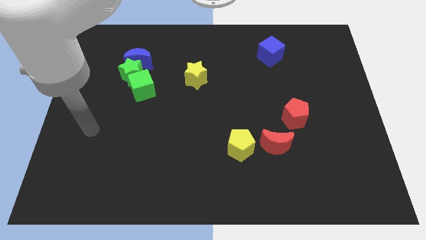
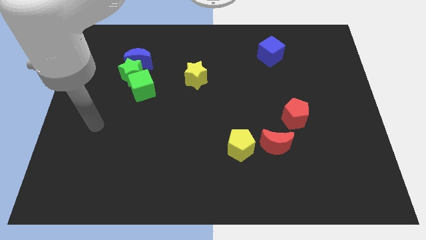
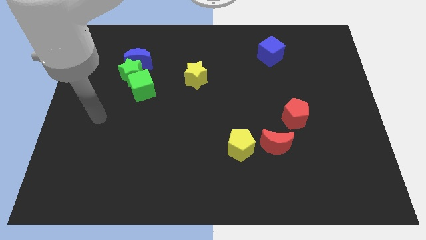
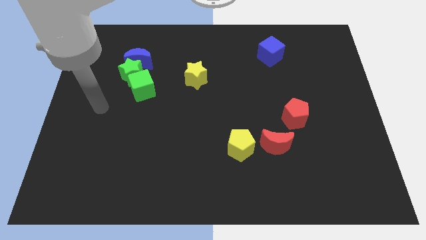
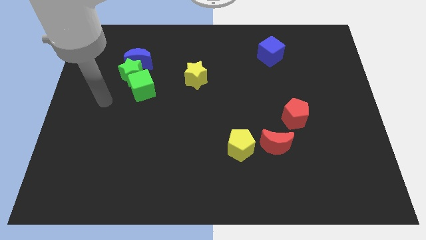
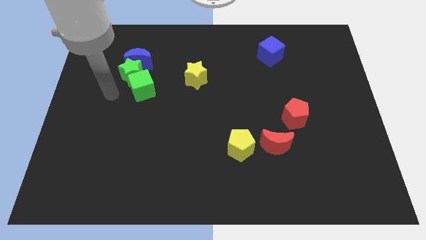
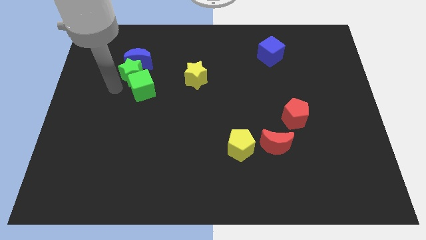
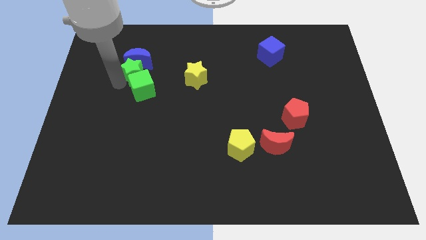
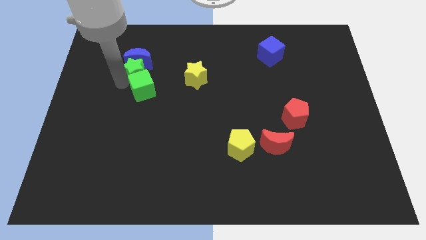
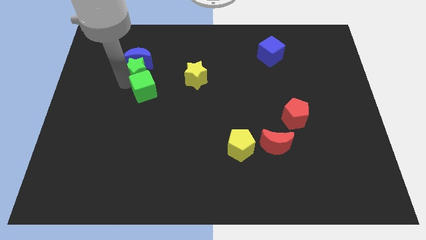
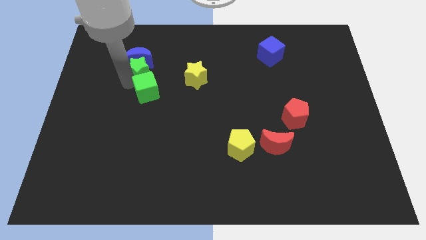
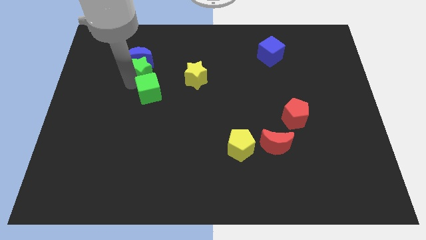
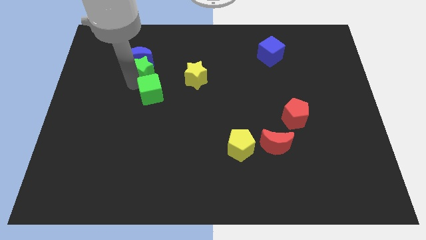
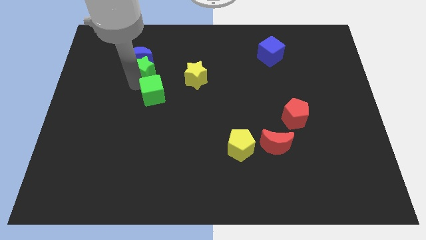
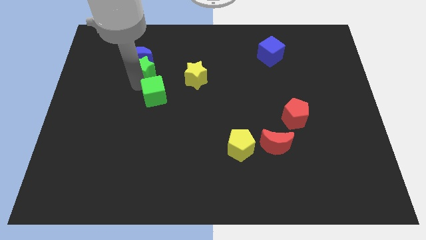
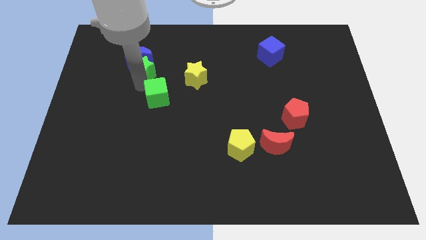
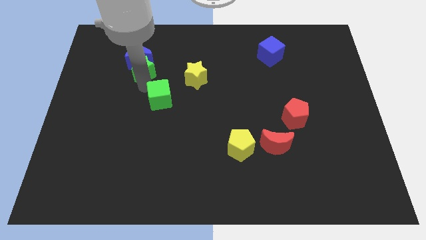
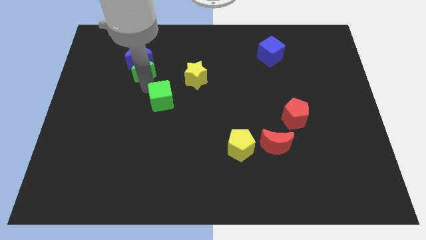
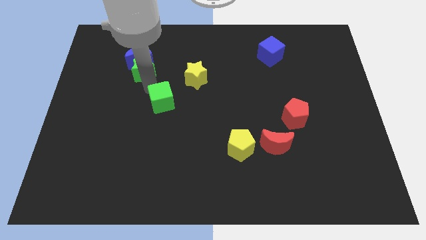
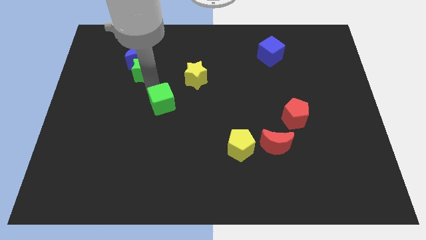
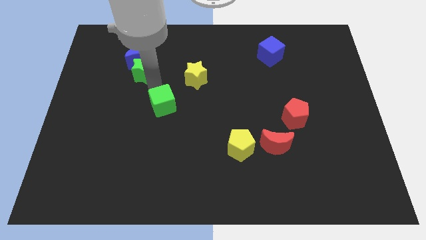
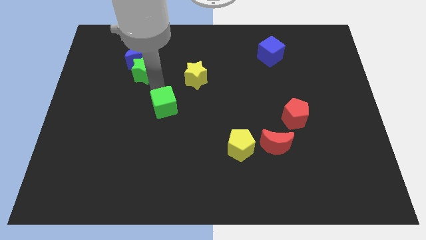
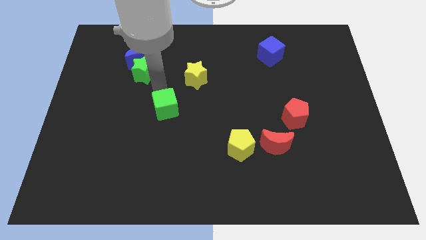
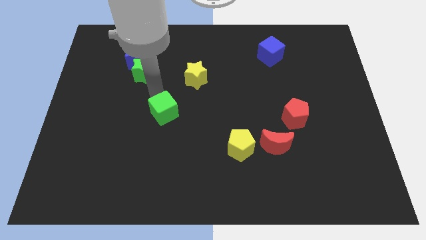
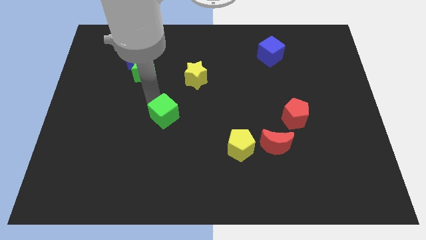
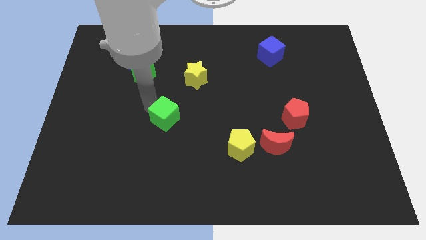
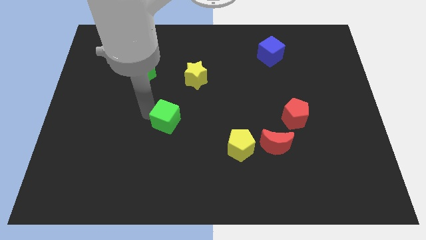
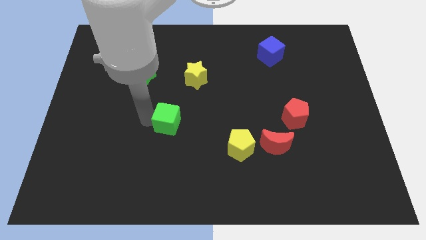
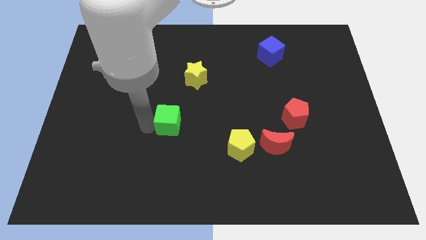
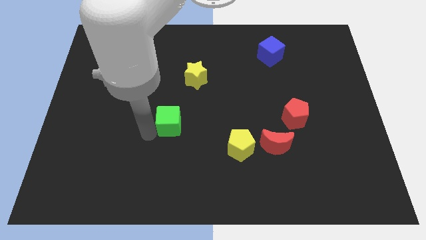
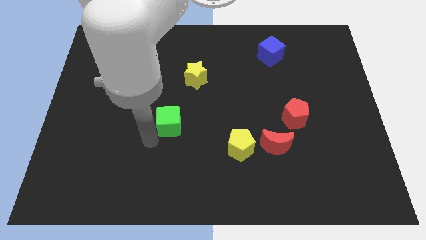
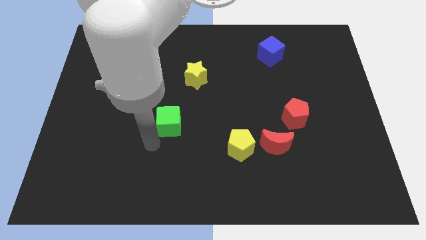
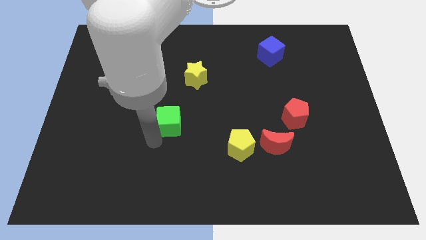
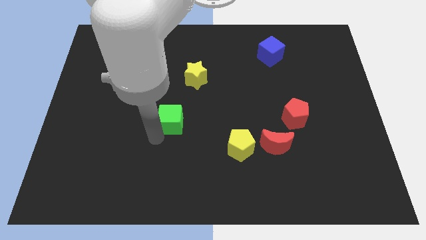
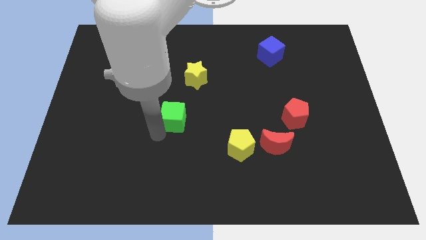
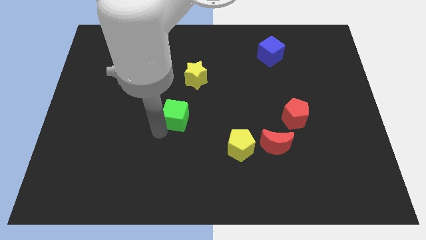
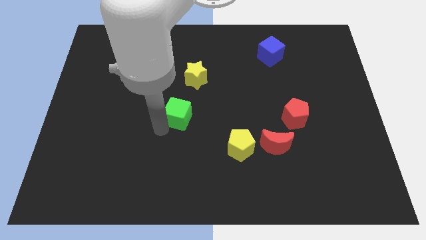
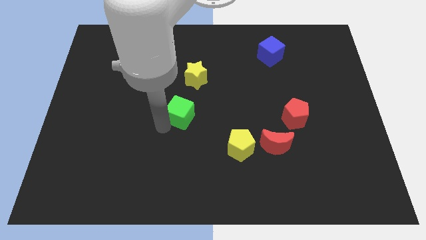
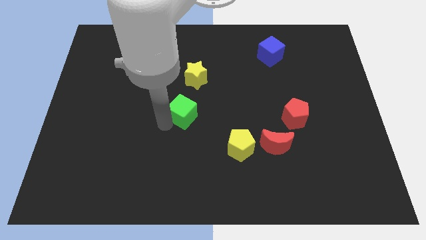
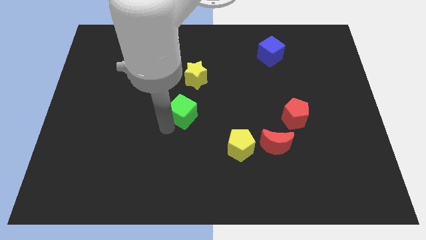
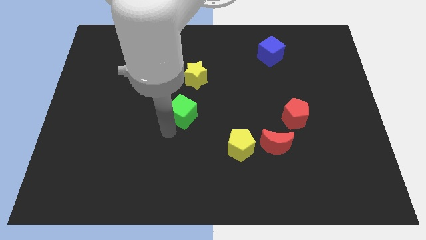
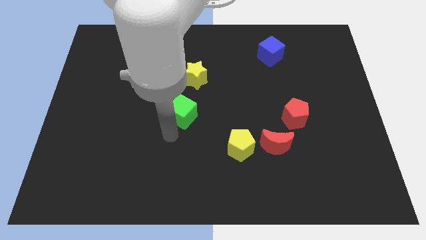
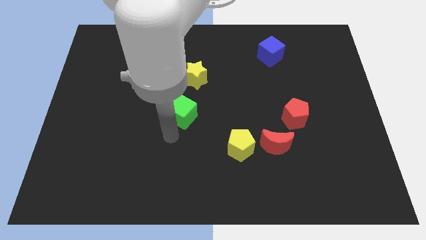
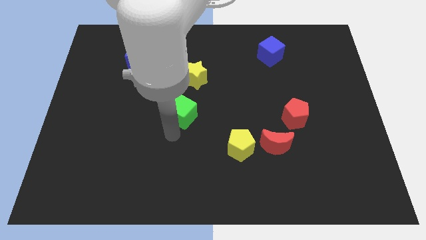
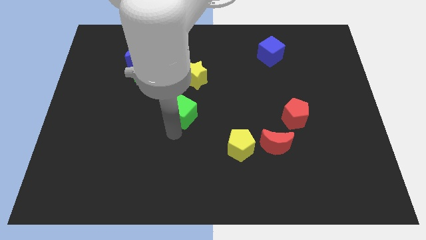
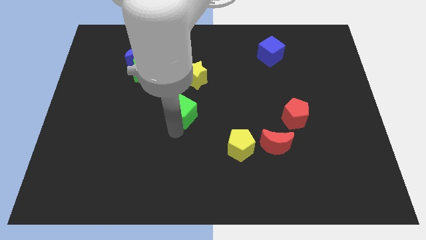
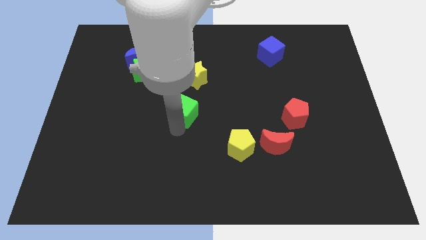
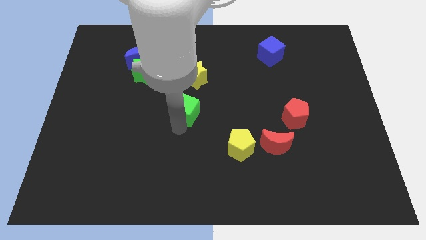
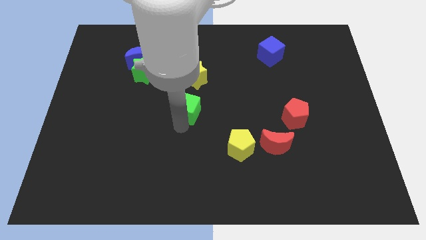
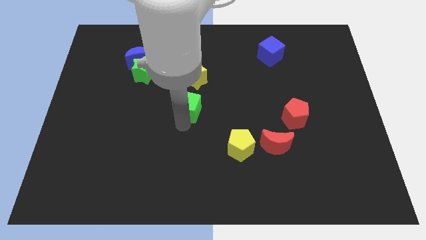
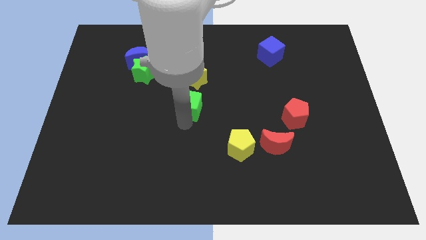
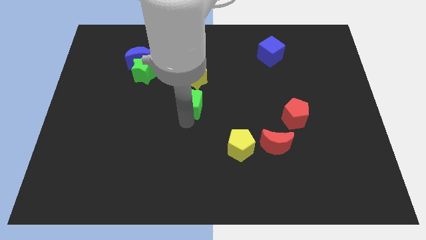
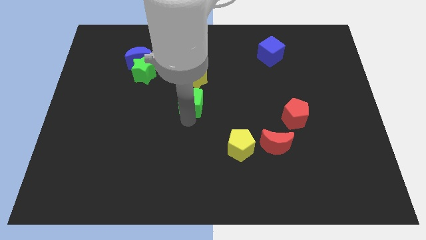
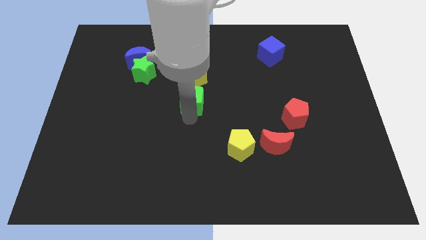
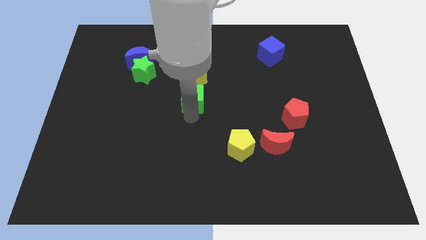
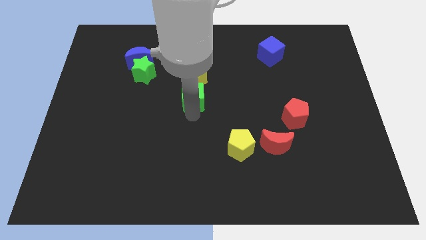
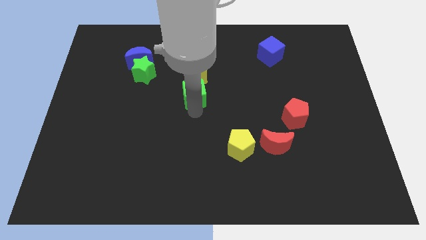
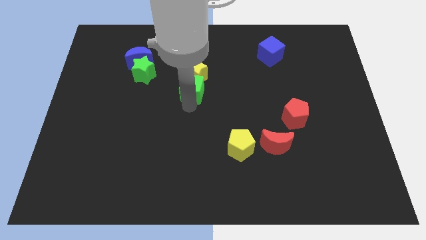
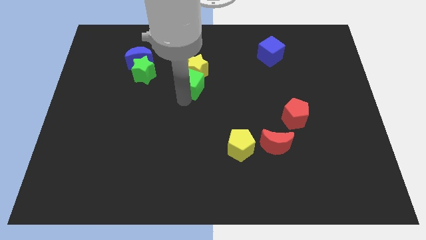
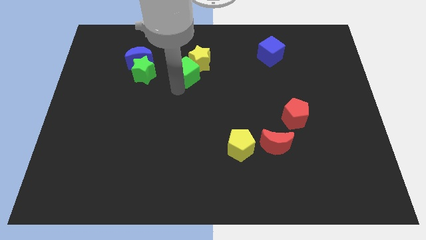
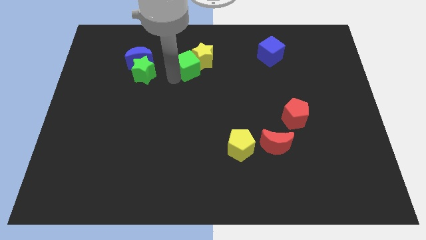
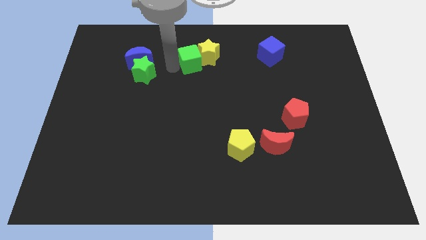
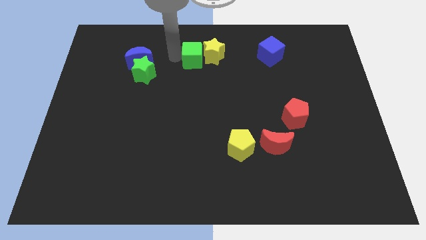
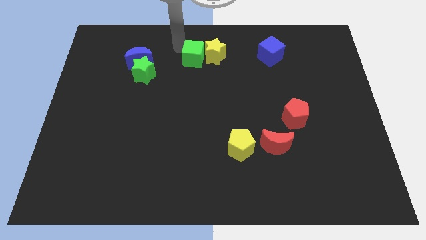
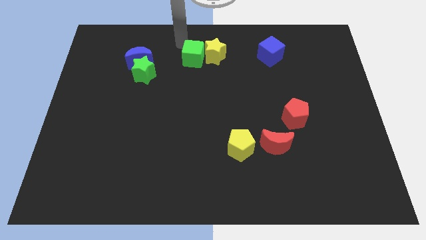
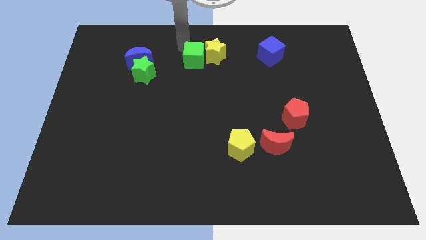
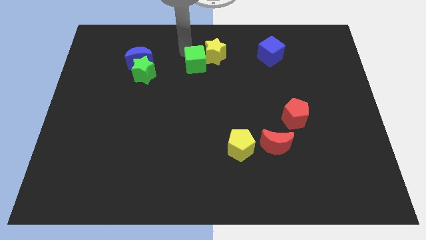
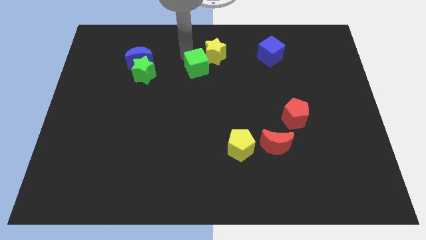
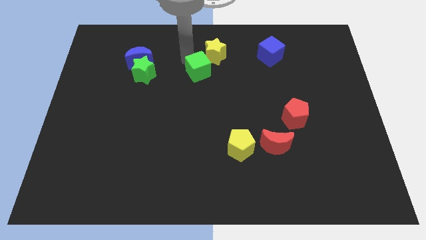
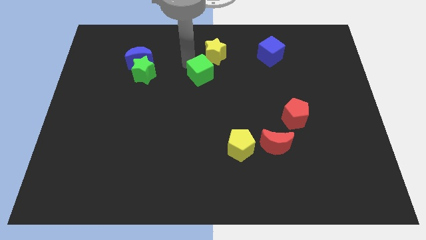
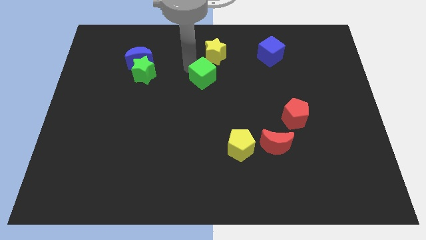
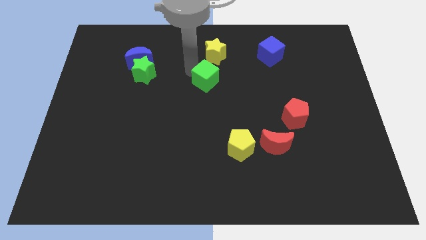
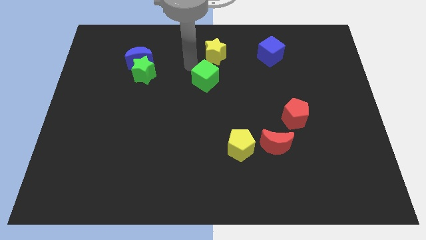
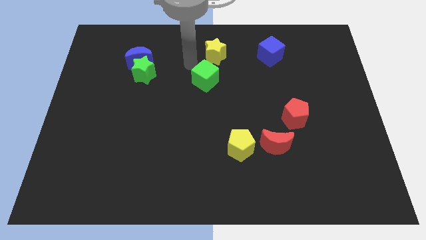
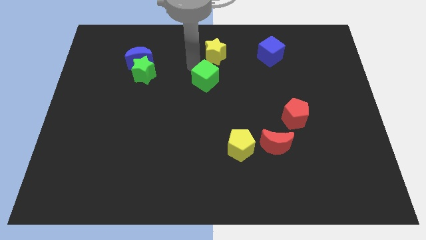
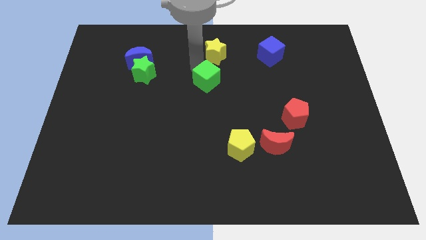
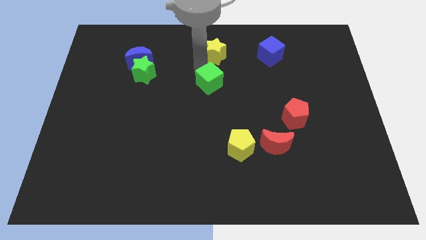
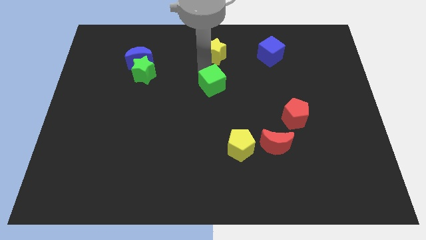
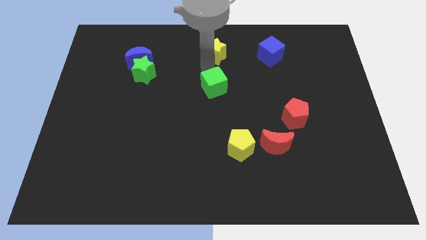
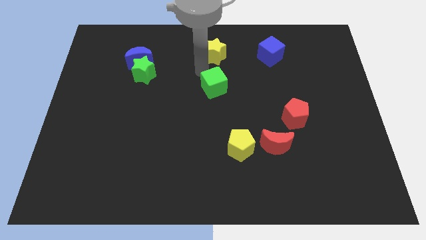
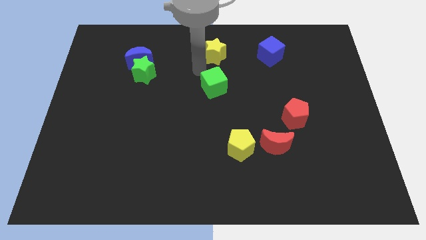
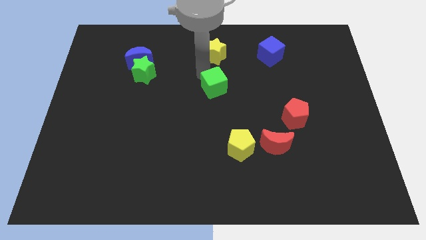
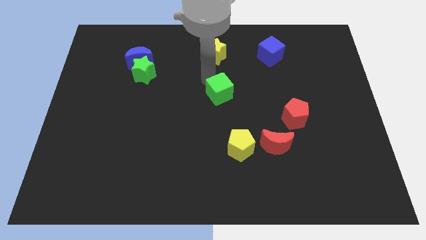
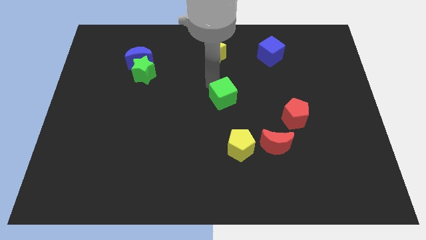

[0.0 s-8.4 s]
move the green cube to the top side of the yellow pentagon
